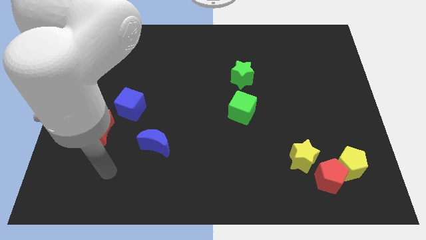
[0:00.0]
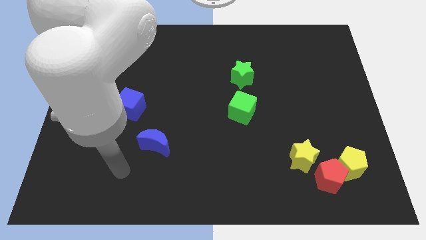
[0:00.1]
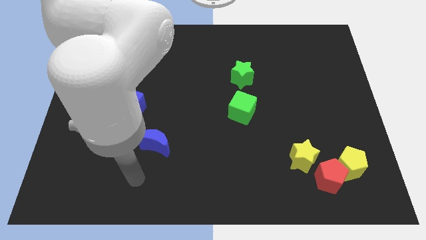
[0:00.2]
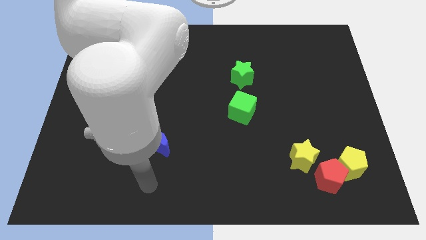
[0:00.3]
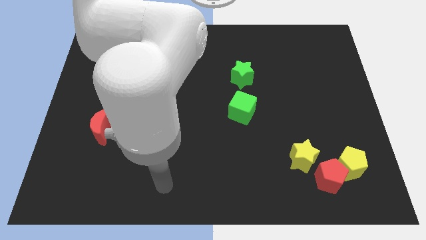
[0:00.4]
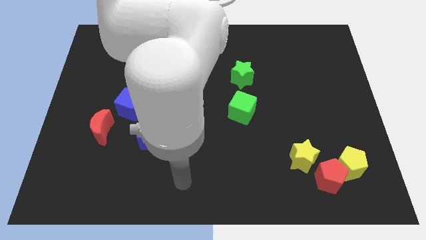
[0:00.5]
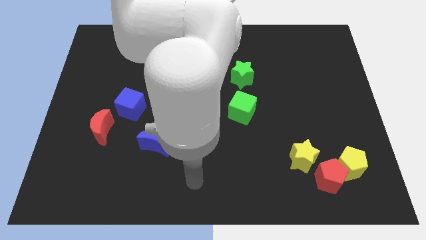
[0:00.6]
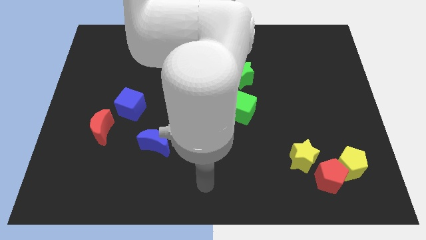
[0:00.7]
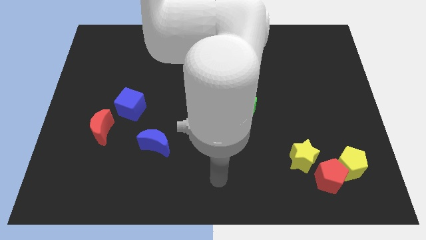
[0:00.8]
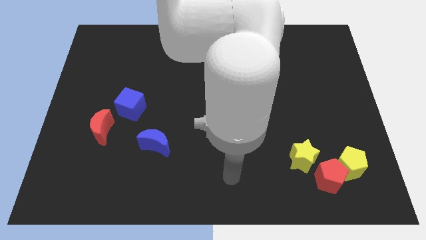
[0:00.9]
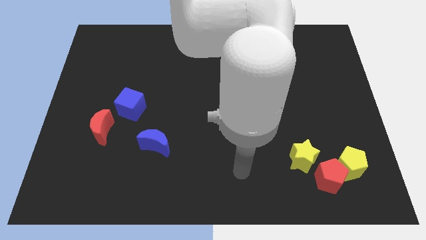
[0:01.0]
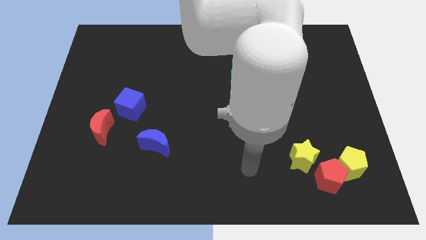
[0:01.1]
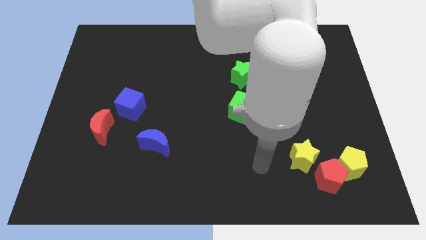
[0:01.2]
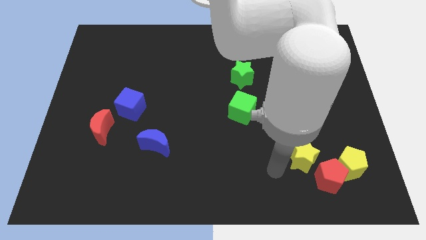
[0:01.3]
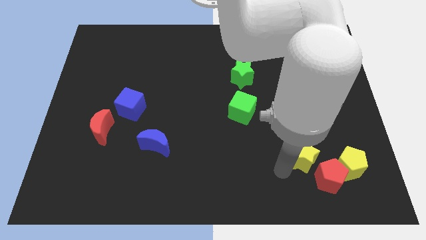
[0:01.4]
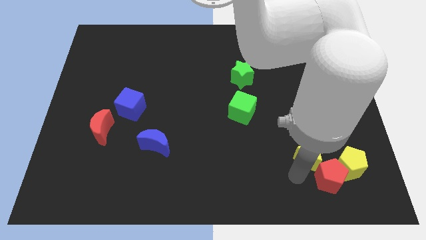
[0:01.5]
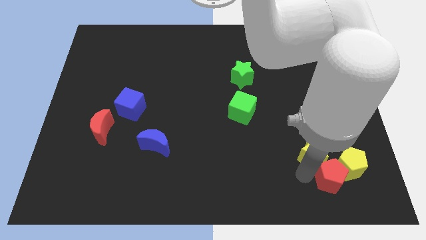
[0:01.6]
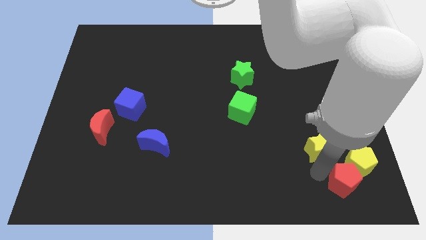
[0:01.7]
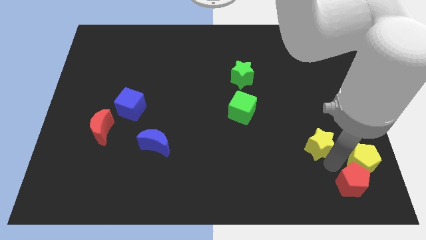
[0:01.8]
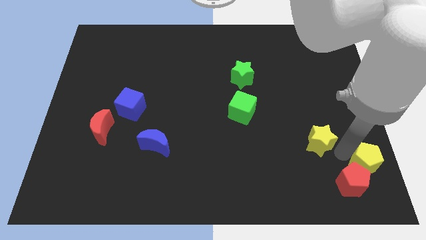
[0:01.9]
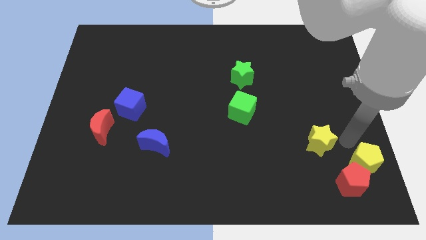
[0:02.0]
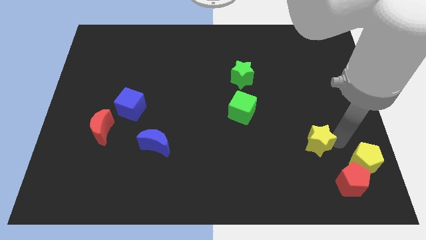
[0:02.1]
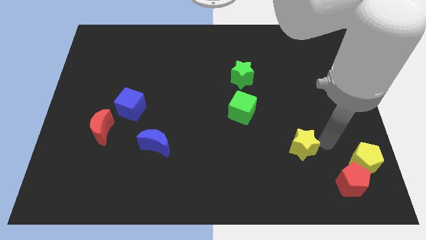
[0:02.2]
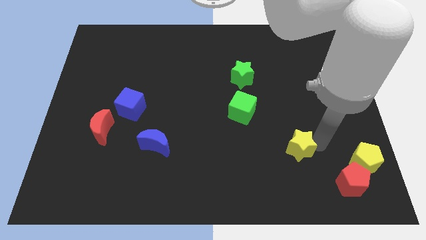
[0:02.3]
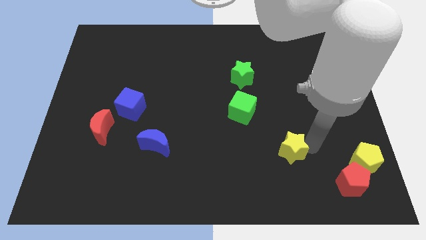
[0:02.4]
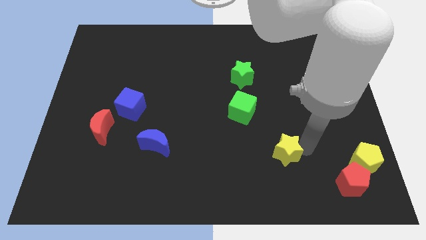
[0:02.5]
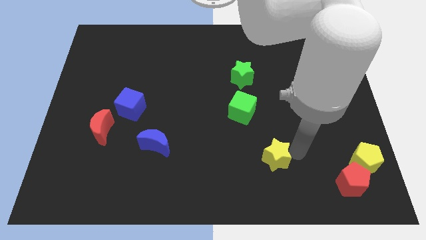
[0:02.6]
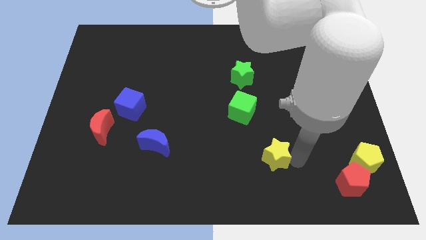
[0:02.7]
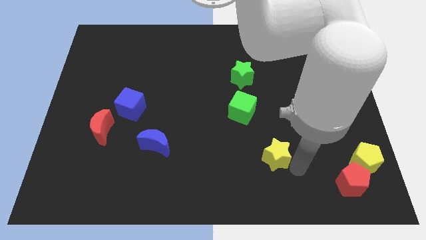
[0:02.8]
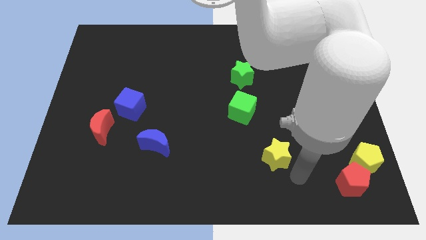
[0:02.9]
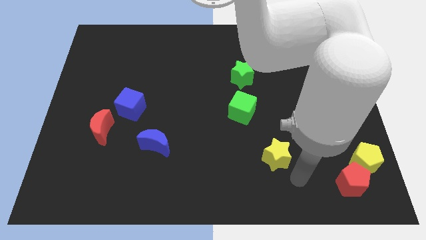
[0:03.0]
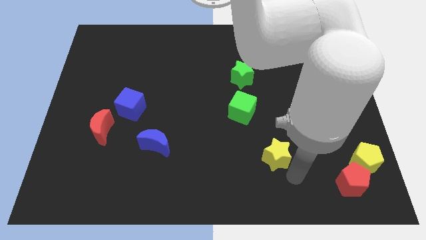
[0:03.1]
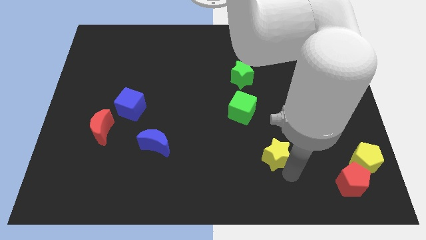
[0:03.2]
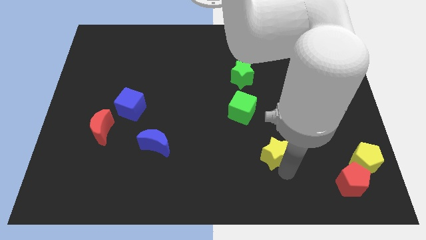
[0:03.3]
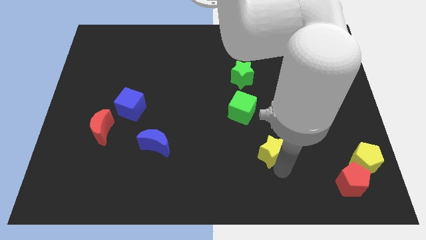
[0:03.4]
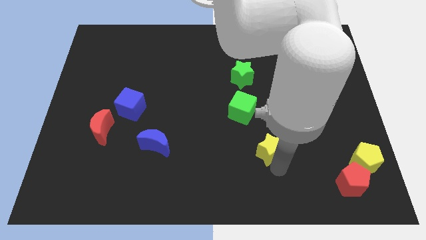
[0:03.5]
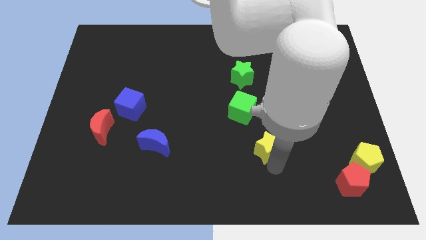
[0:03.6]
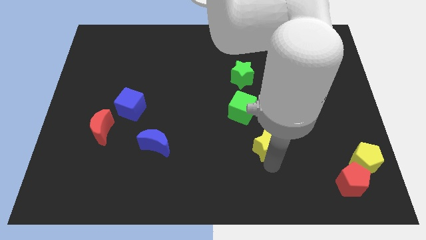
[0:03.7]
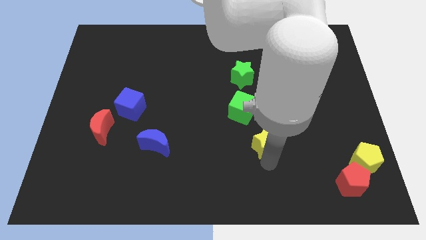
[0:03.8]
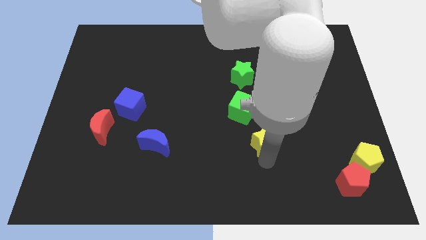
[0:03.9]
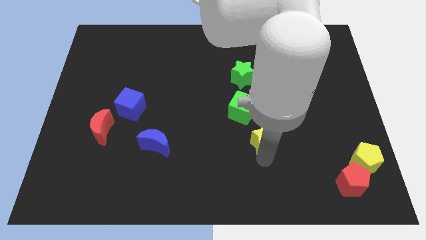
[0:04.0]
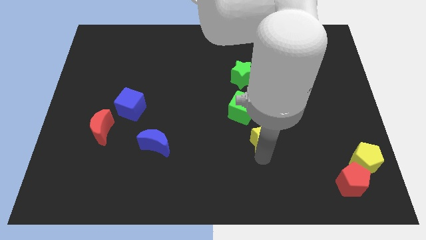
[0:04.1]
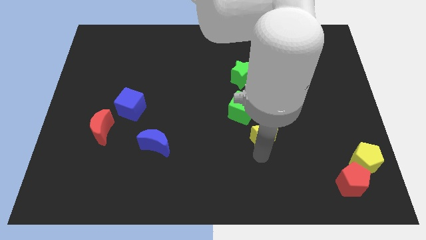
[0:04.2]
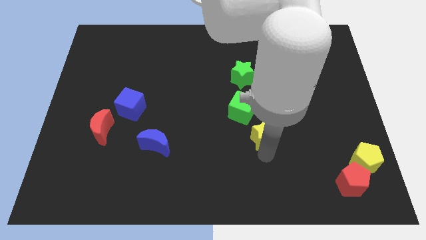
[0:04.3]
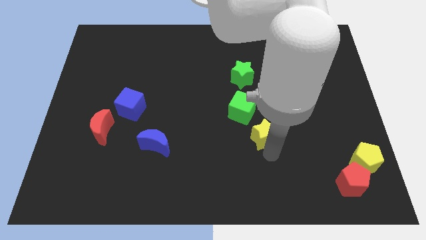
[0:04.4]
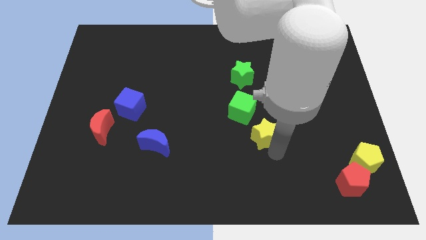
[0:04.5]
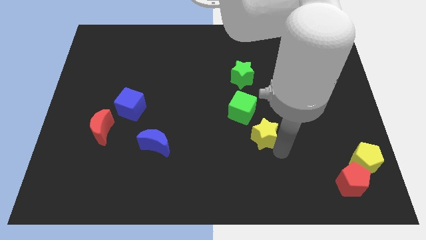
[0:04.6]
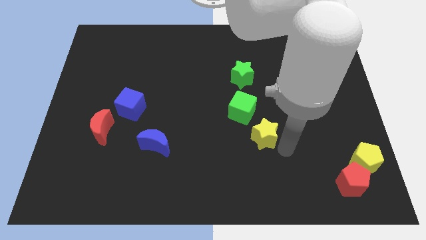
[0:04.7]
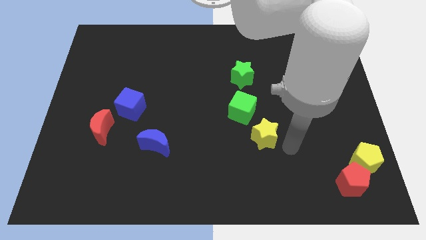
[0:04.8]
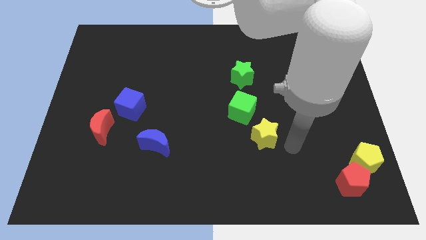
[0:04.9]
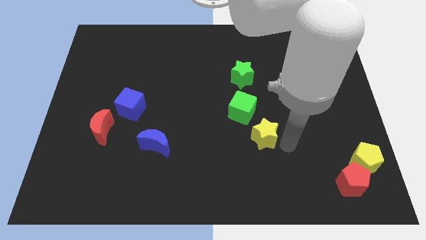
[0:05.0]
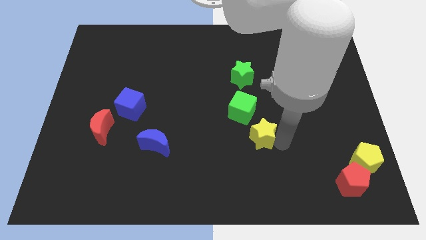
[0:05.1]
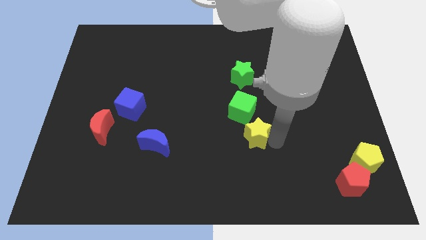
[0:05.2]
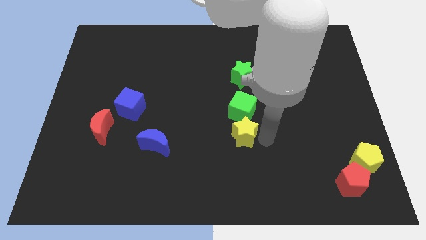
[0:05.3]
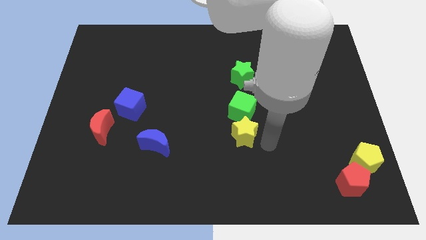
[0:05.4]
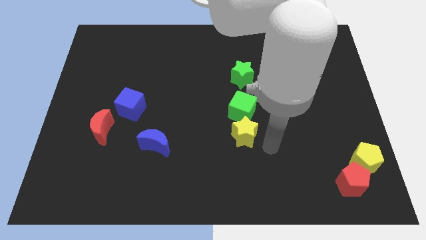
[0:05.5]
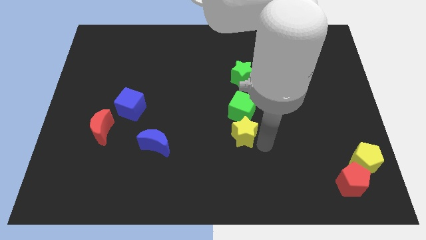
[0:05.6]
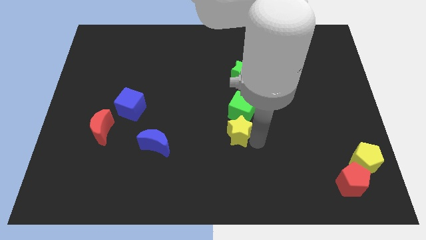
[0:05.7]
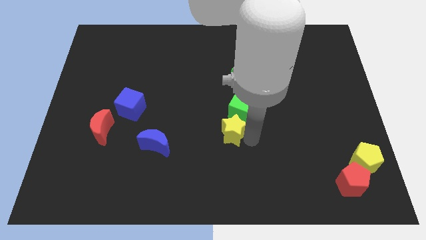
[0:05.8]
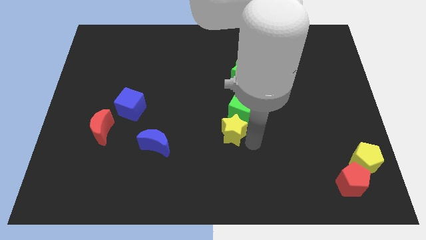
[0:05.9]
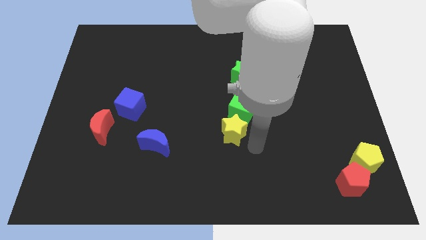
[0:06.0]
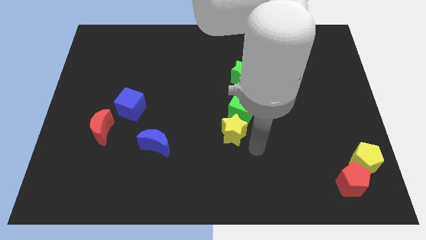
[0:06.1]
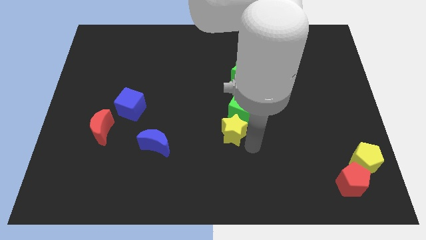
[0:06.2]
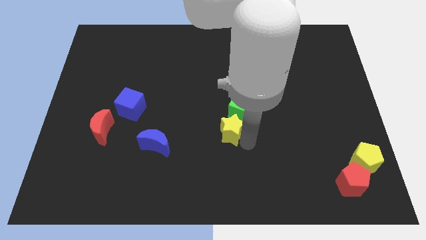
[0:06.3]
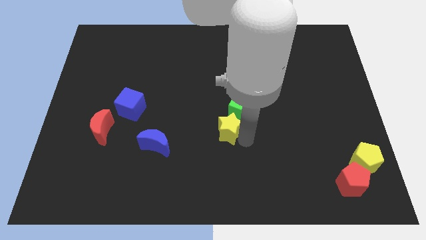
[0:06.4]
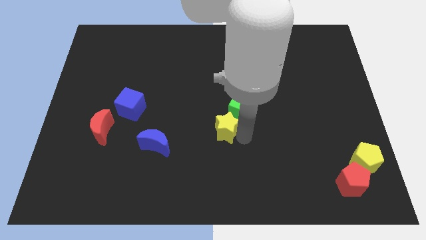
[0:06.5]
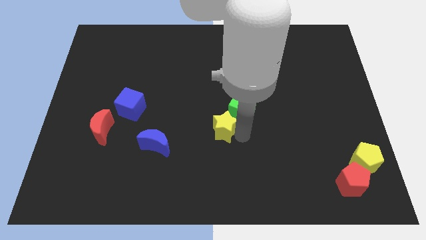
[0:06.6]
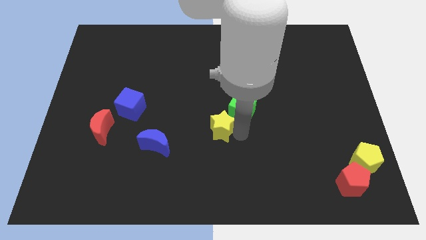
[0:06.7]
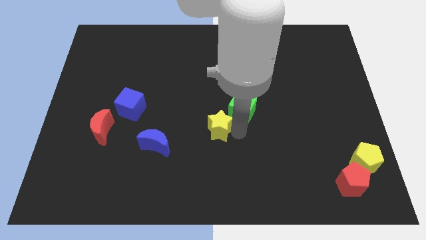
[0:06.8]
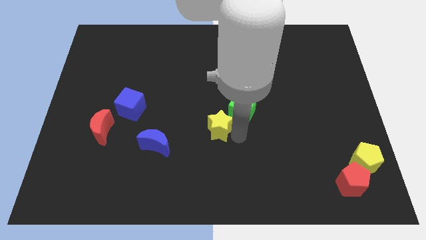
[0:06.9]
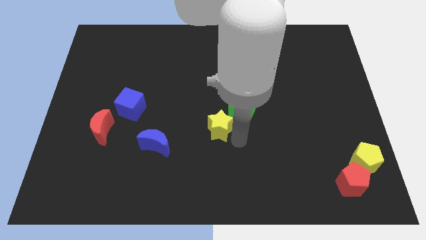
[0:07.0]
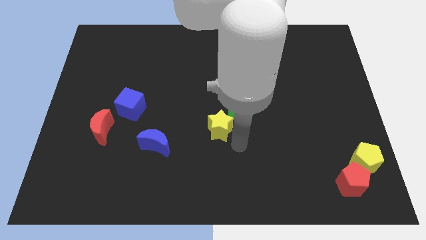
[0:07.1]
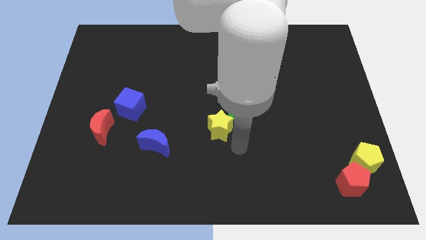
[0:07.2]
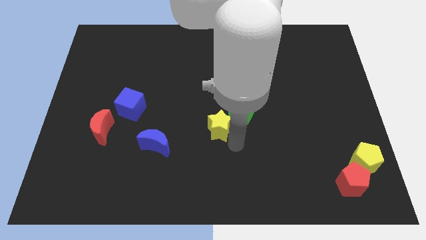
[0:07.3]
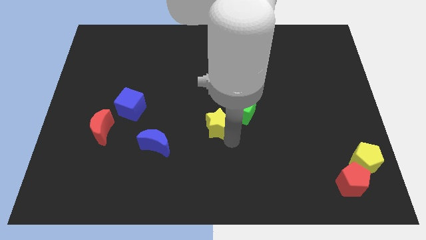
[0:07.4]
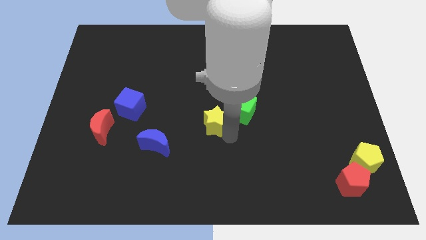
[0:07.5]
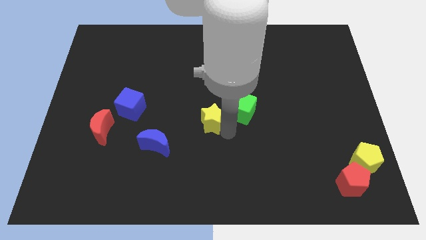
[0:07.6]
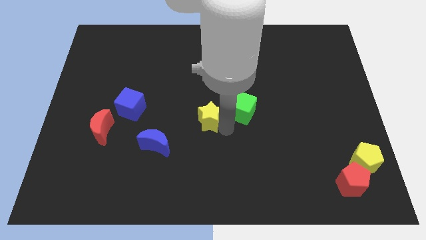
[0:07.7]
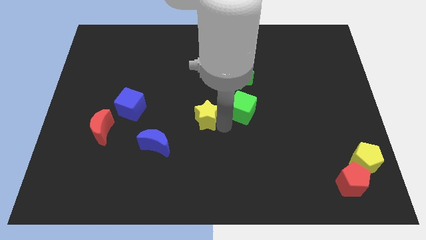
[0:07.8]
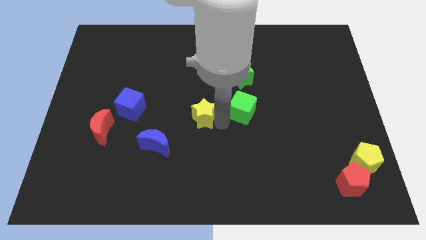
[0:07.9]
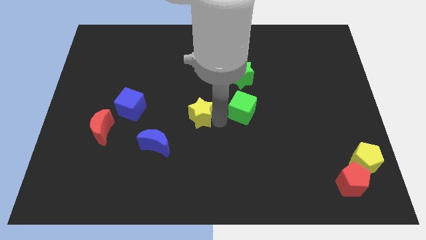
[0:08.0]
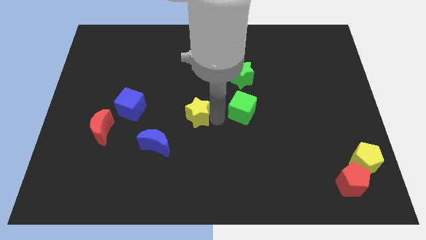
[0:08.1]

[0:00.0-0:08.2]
move the yellow star just right of the blue cube
